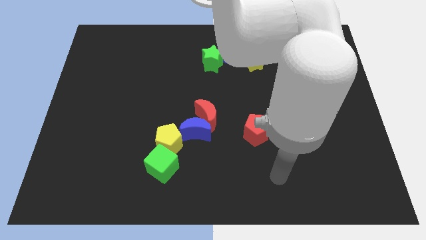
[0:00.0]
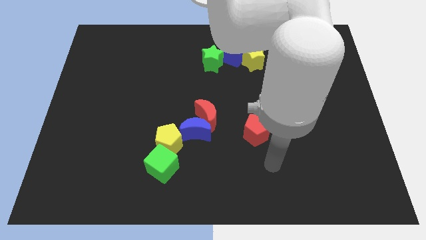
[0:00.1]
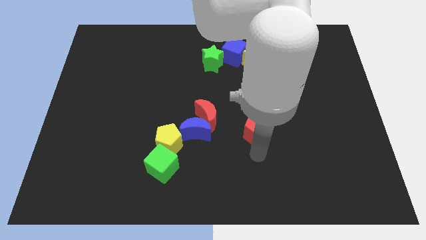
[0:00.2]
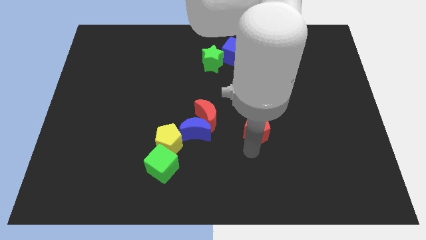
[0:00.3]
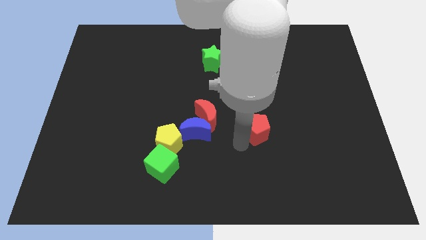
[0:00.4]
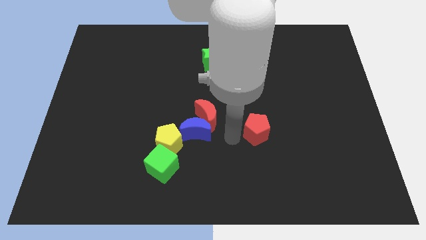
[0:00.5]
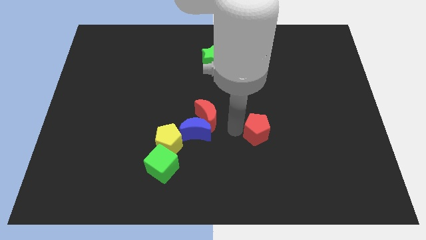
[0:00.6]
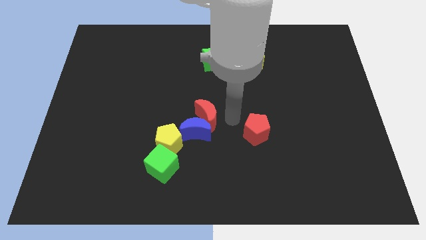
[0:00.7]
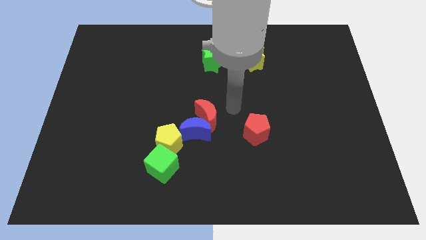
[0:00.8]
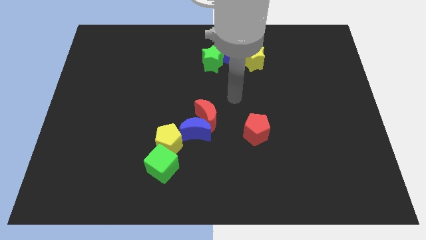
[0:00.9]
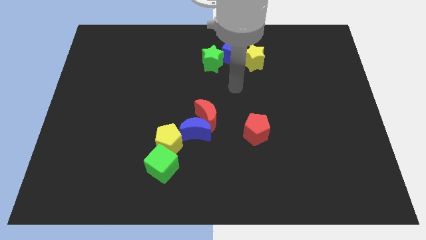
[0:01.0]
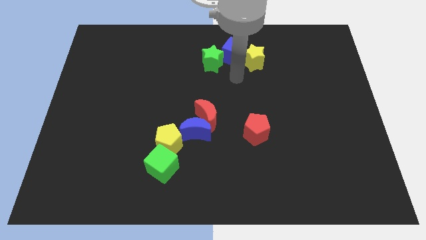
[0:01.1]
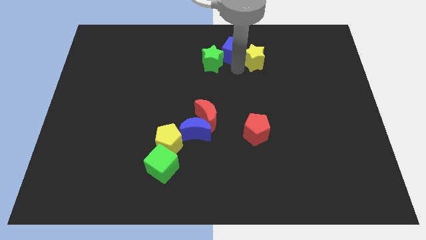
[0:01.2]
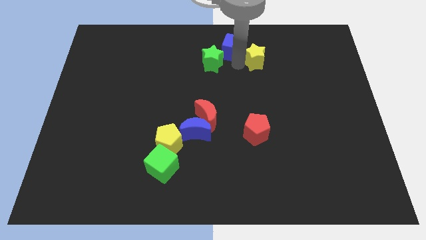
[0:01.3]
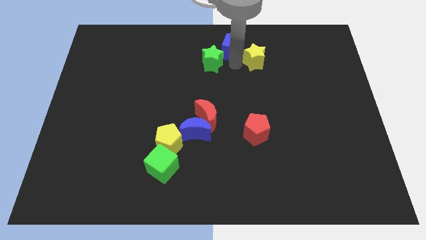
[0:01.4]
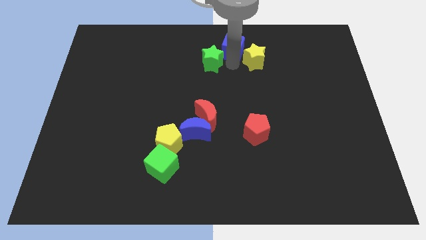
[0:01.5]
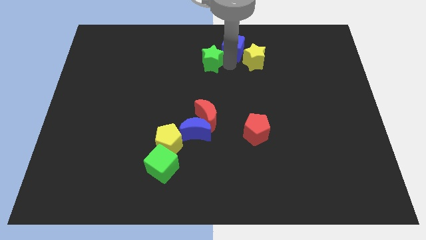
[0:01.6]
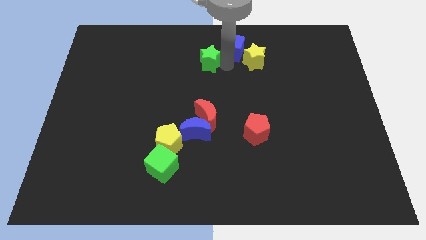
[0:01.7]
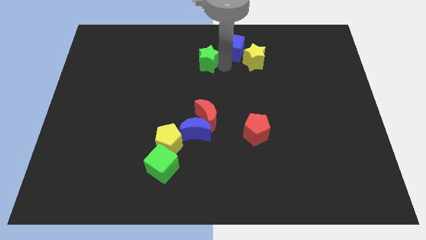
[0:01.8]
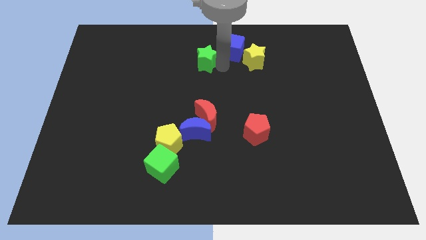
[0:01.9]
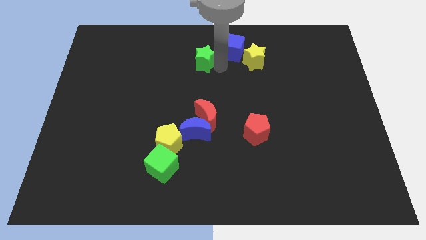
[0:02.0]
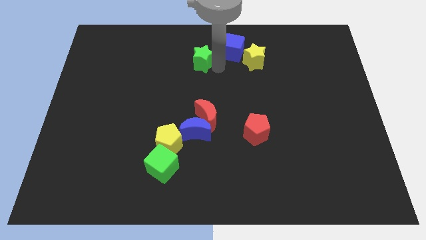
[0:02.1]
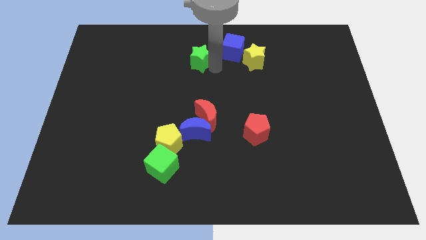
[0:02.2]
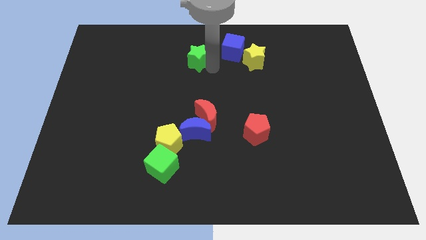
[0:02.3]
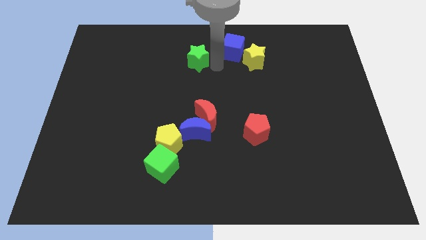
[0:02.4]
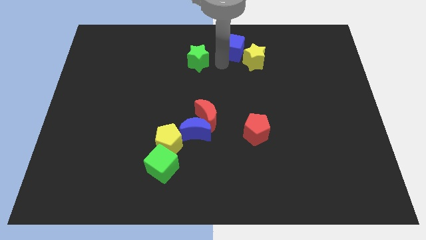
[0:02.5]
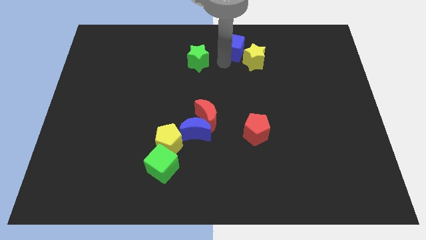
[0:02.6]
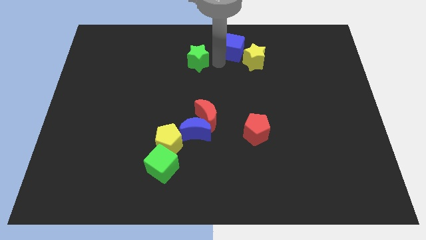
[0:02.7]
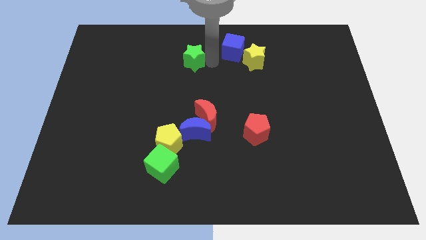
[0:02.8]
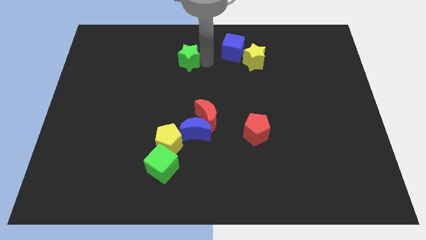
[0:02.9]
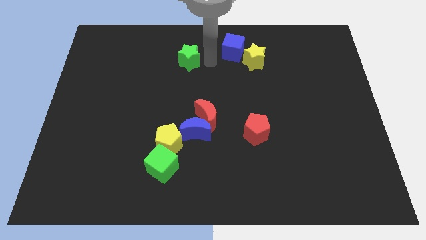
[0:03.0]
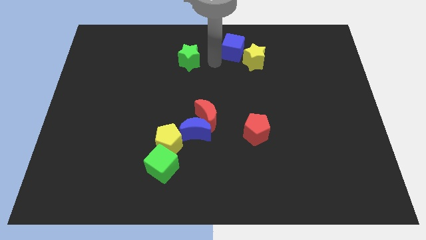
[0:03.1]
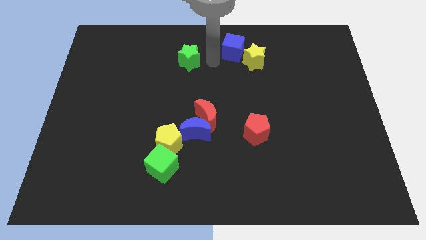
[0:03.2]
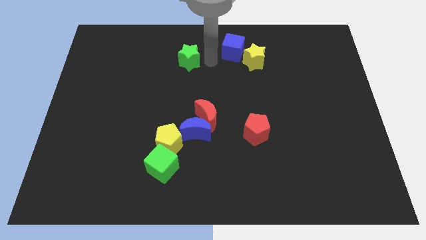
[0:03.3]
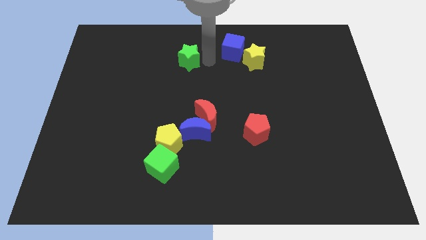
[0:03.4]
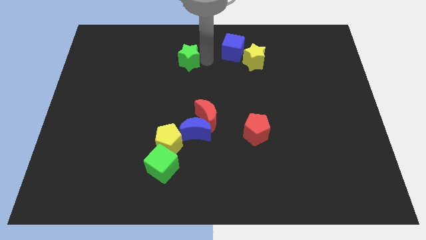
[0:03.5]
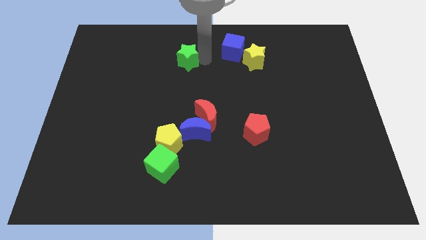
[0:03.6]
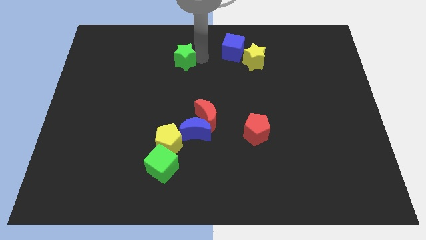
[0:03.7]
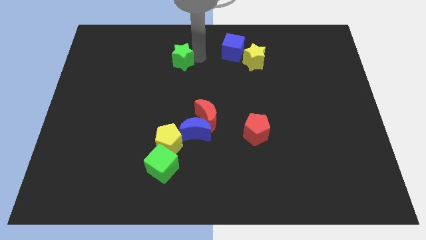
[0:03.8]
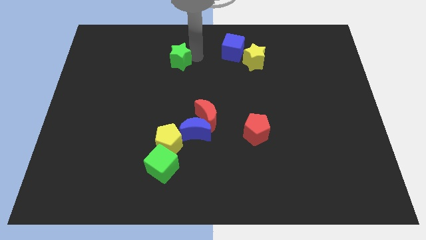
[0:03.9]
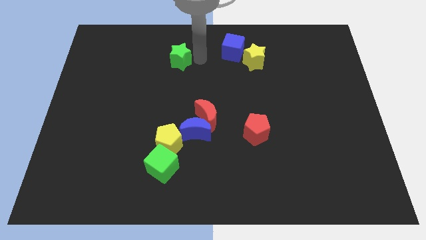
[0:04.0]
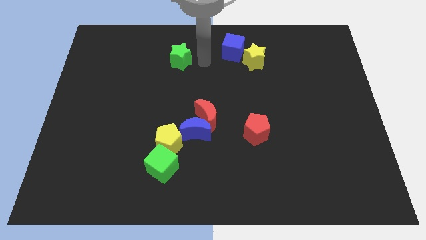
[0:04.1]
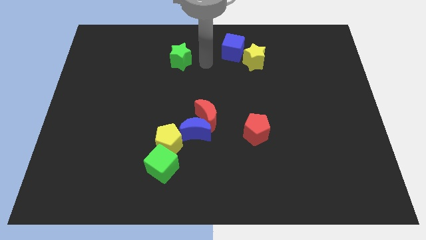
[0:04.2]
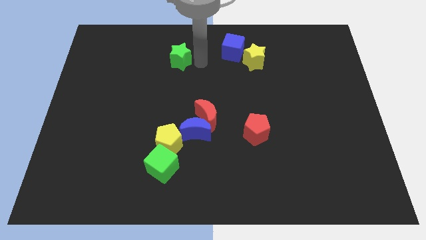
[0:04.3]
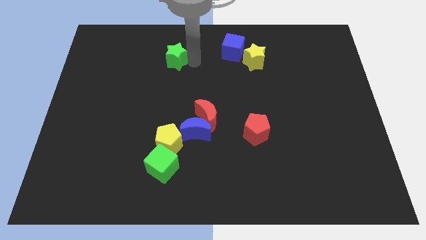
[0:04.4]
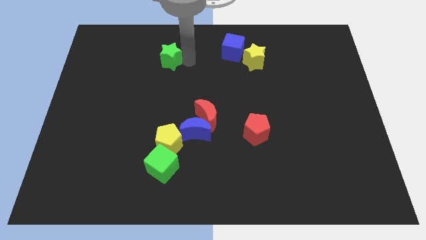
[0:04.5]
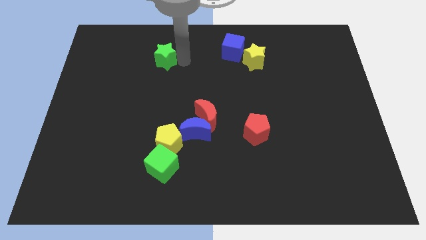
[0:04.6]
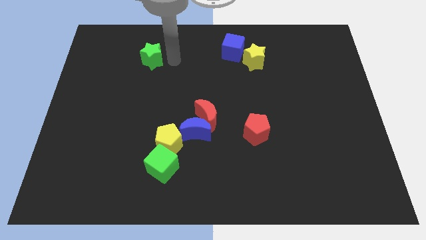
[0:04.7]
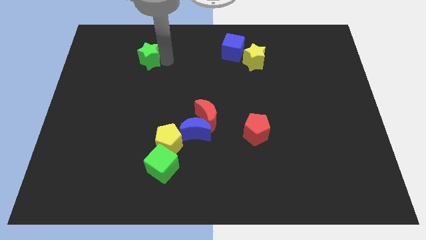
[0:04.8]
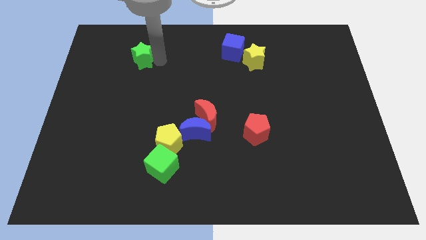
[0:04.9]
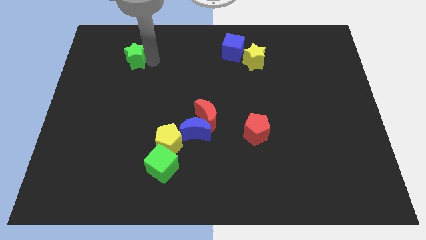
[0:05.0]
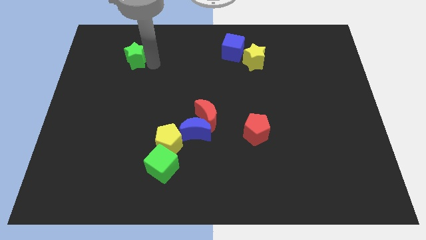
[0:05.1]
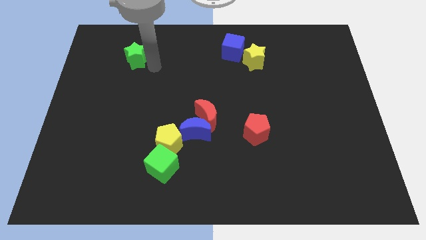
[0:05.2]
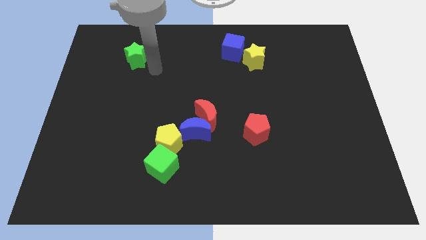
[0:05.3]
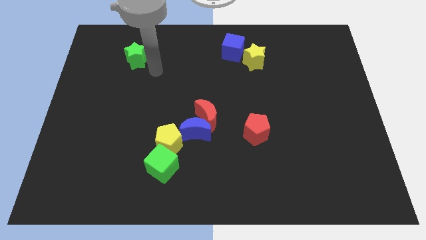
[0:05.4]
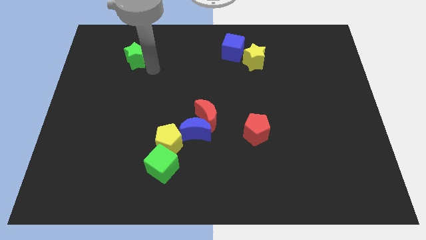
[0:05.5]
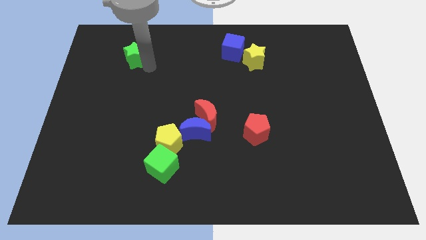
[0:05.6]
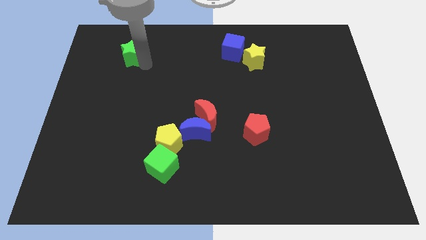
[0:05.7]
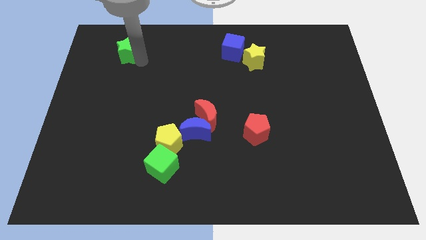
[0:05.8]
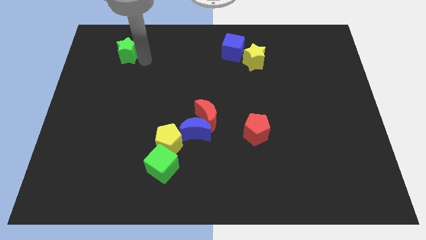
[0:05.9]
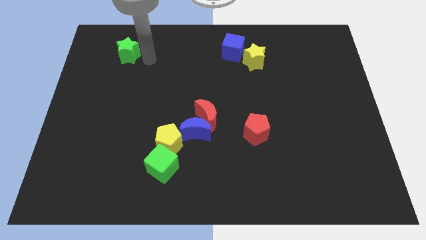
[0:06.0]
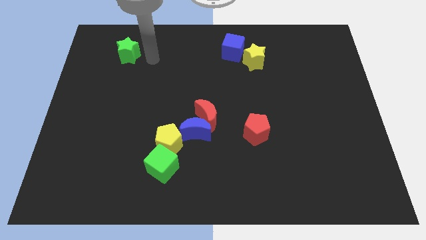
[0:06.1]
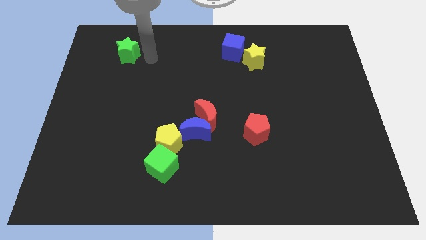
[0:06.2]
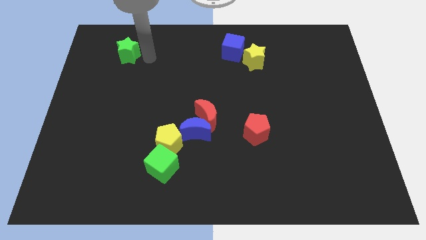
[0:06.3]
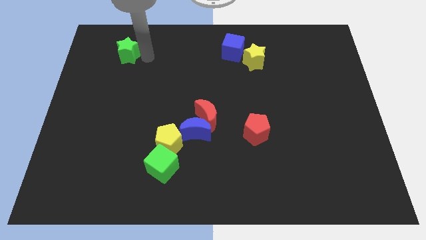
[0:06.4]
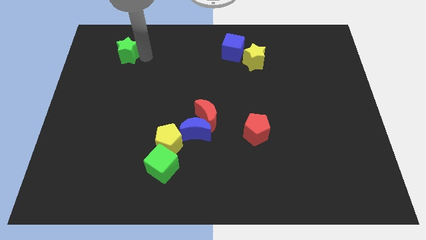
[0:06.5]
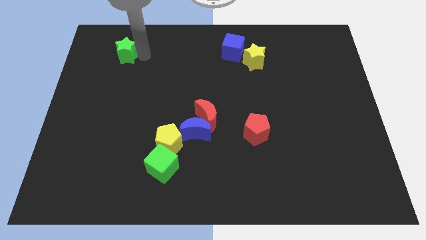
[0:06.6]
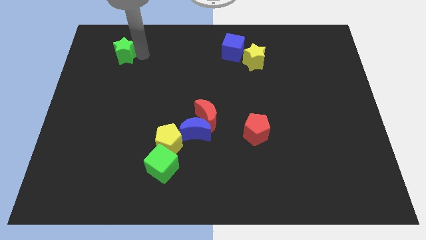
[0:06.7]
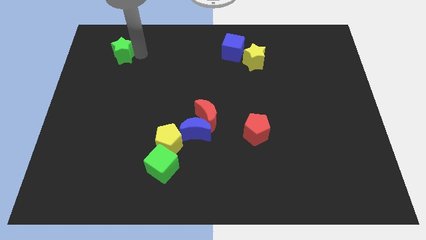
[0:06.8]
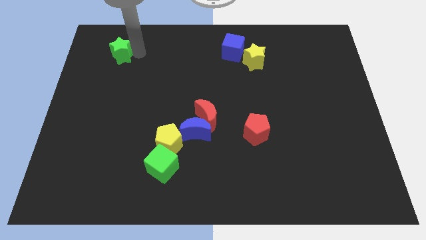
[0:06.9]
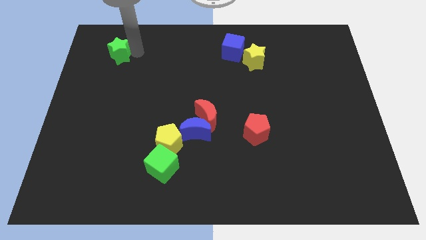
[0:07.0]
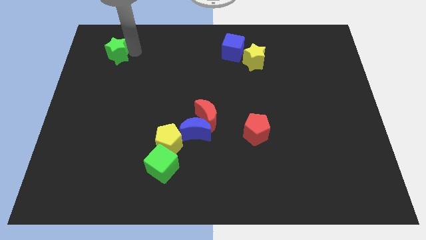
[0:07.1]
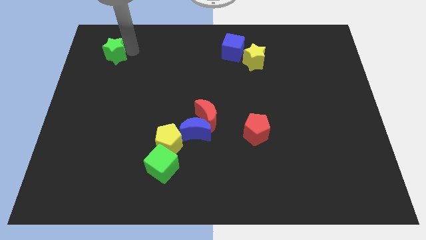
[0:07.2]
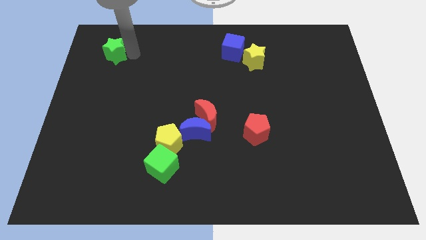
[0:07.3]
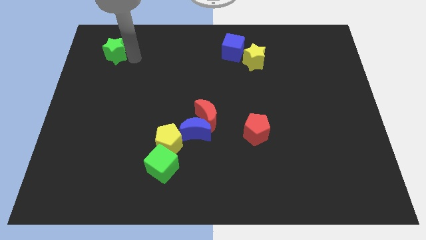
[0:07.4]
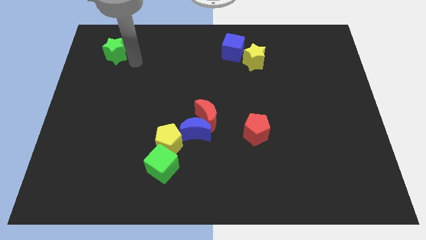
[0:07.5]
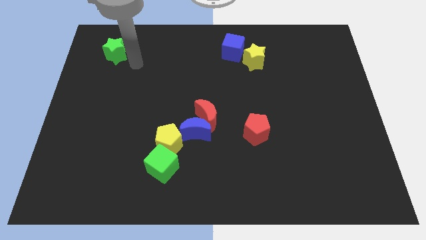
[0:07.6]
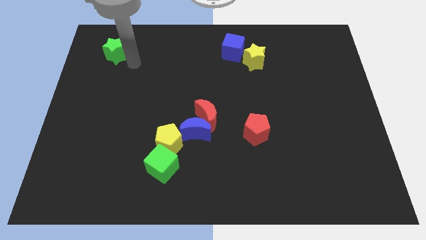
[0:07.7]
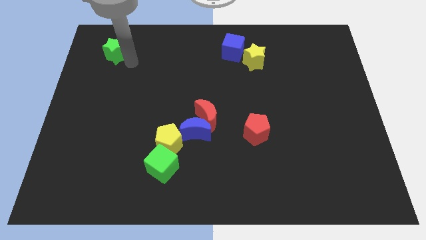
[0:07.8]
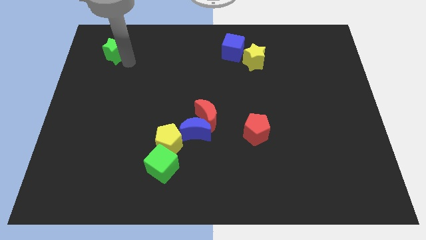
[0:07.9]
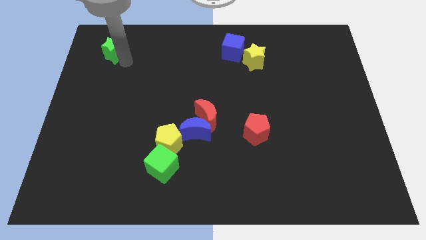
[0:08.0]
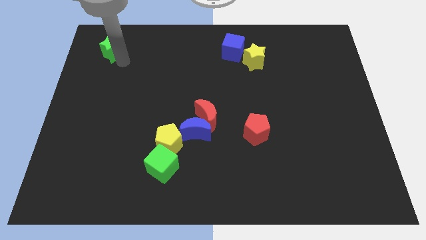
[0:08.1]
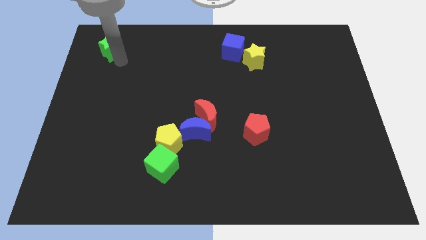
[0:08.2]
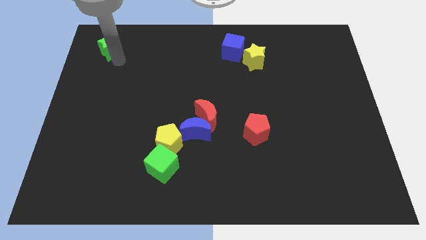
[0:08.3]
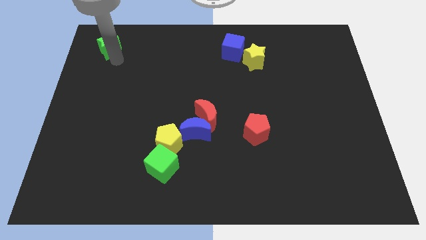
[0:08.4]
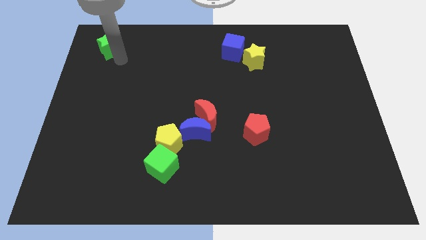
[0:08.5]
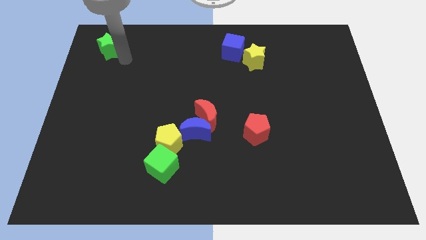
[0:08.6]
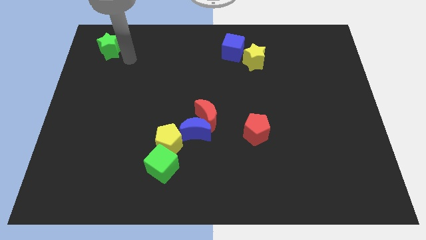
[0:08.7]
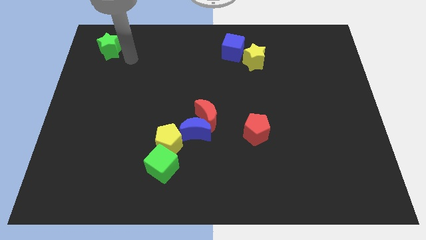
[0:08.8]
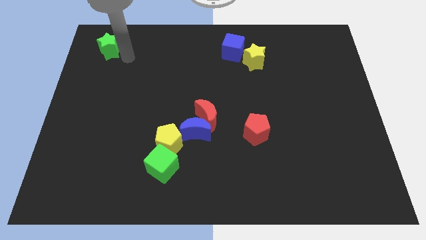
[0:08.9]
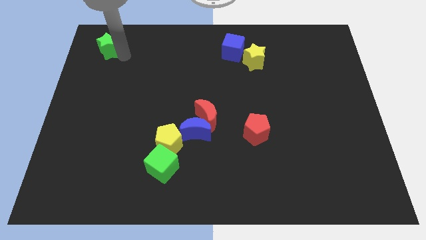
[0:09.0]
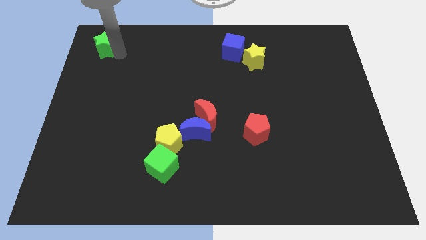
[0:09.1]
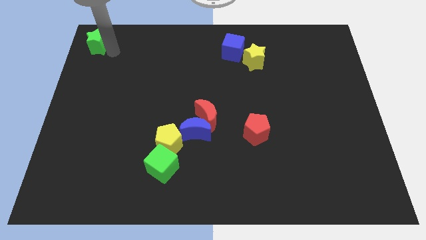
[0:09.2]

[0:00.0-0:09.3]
slide the green star to the top left
